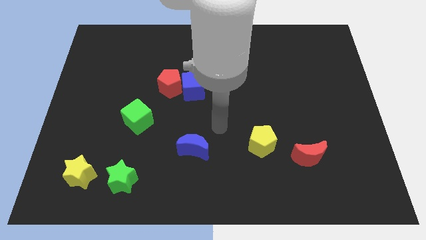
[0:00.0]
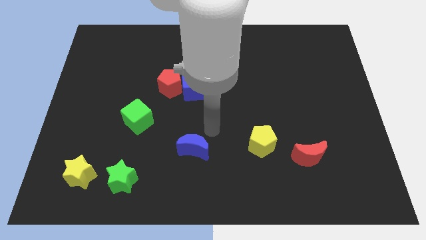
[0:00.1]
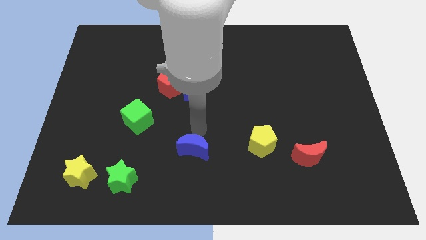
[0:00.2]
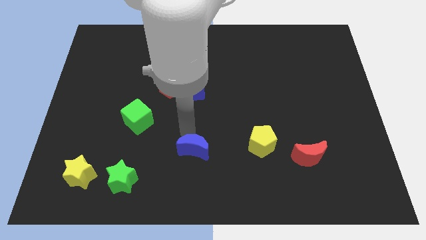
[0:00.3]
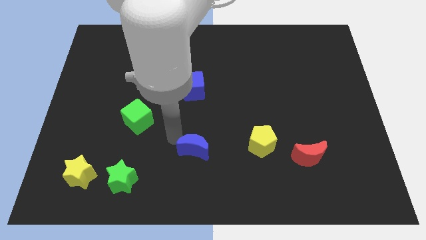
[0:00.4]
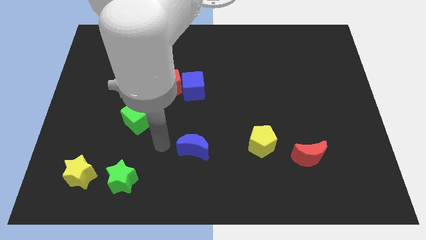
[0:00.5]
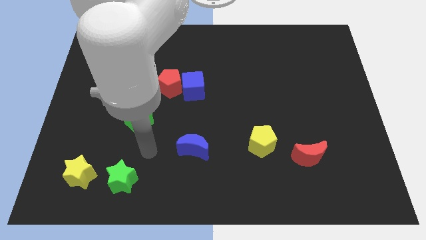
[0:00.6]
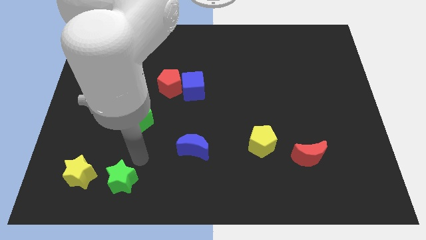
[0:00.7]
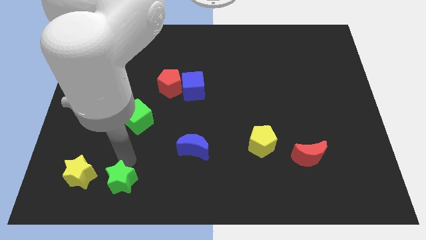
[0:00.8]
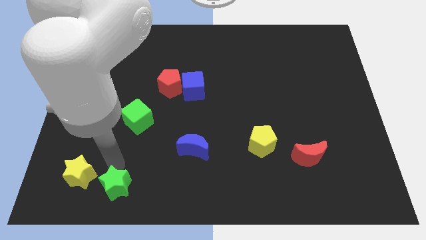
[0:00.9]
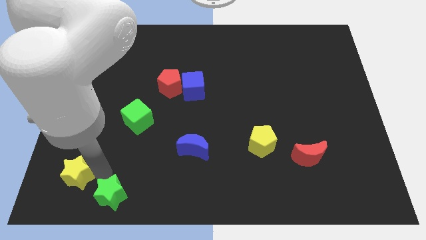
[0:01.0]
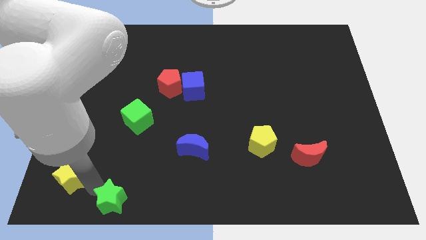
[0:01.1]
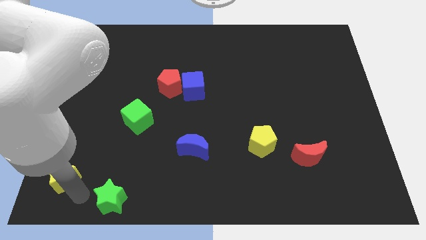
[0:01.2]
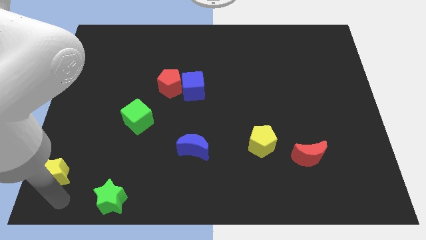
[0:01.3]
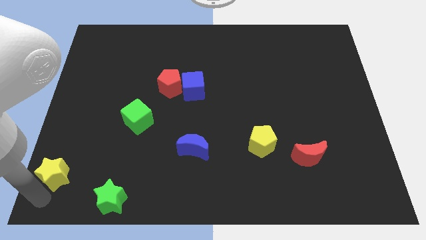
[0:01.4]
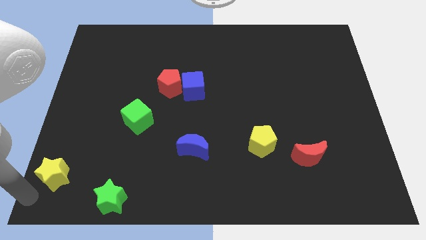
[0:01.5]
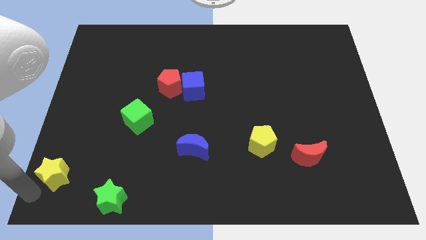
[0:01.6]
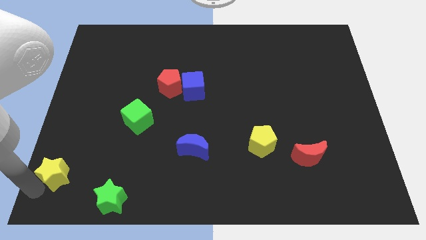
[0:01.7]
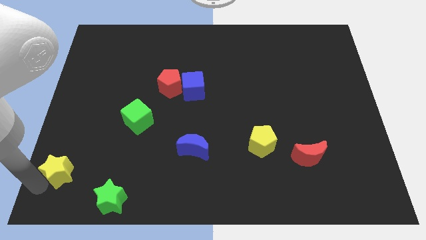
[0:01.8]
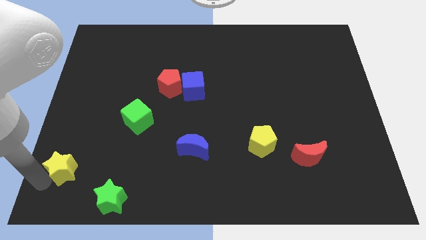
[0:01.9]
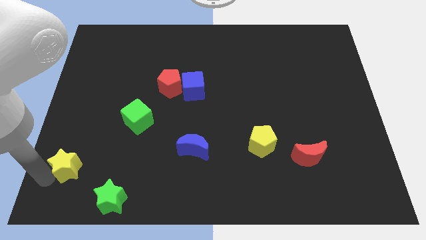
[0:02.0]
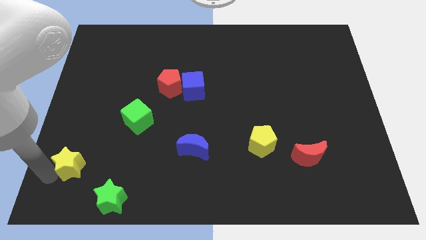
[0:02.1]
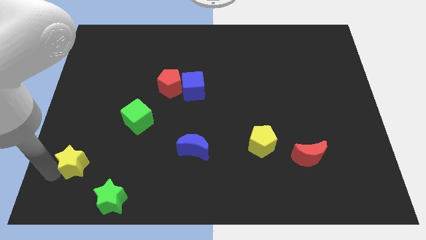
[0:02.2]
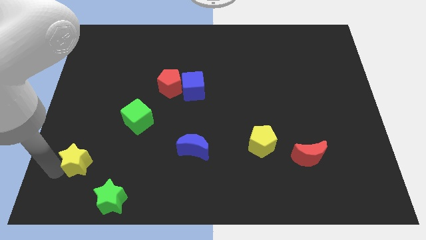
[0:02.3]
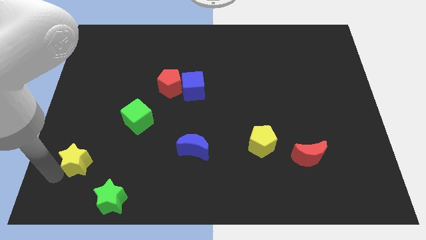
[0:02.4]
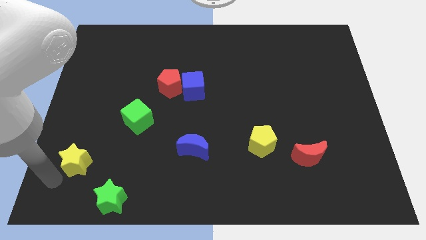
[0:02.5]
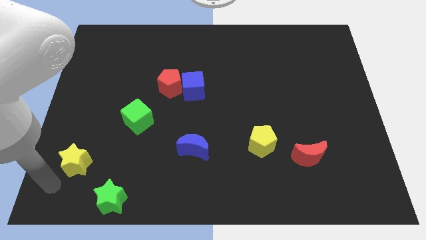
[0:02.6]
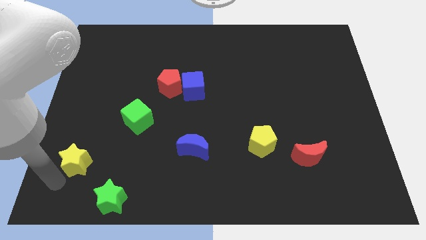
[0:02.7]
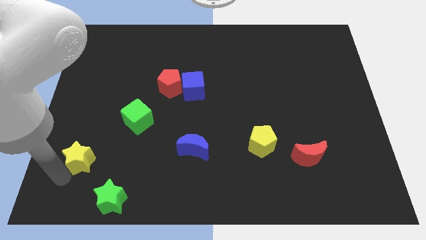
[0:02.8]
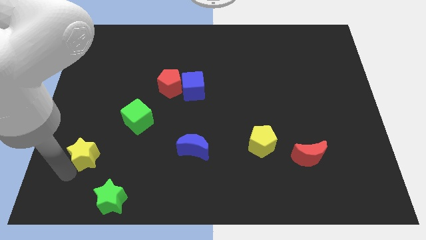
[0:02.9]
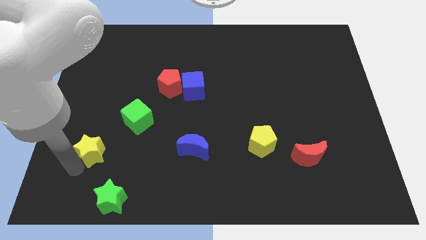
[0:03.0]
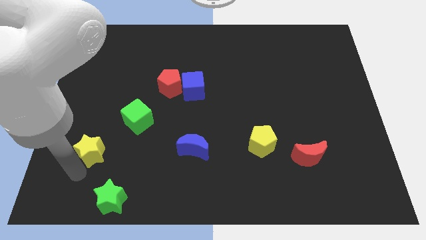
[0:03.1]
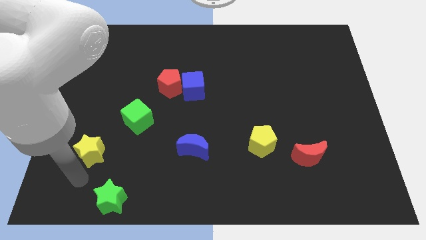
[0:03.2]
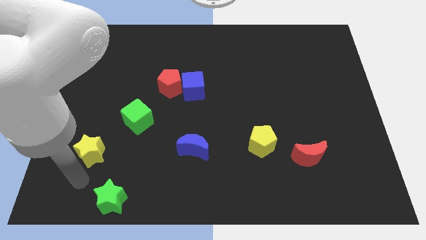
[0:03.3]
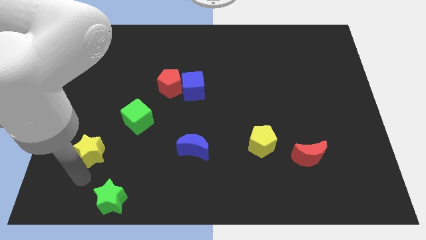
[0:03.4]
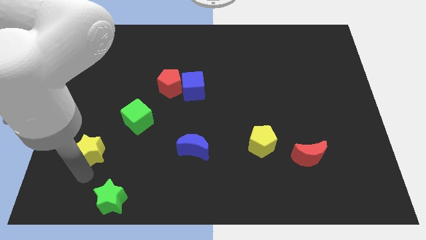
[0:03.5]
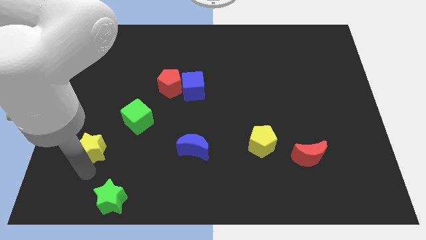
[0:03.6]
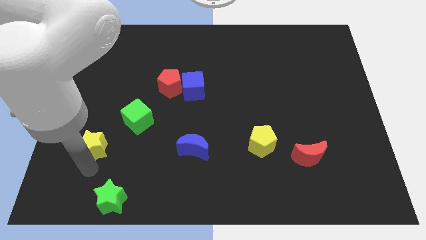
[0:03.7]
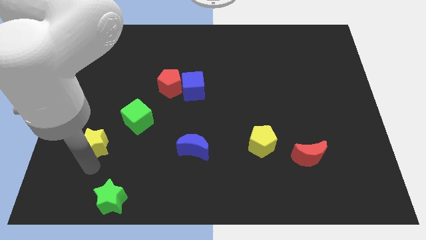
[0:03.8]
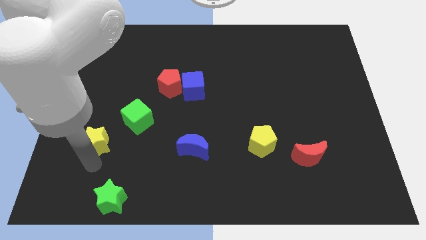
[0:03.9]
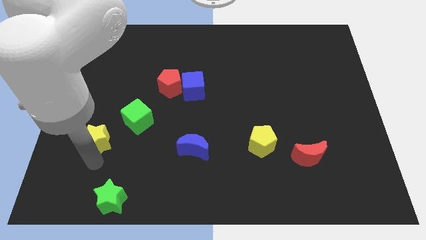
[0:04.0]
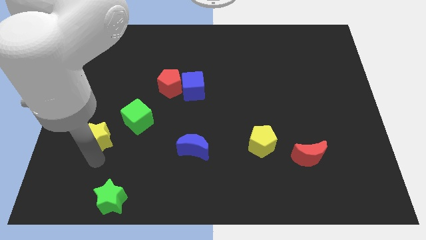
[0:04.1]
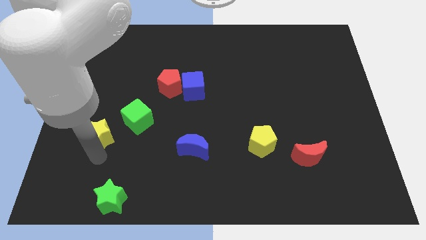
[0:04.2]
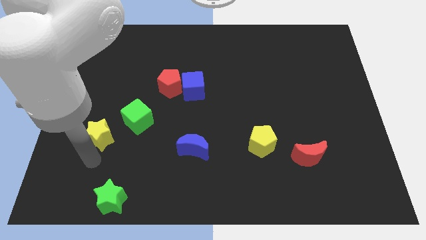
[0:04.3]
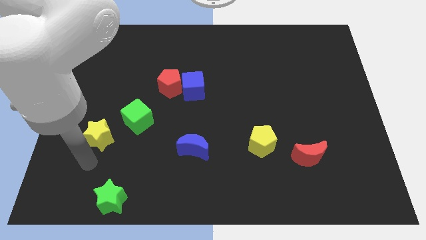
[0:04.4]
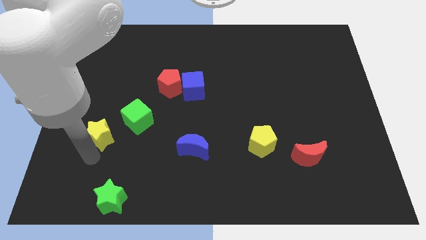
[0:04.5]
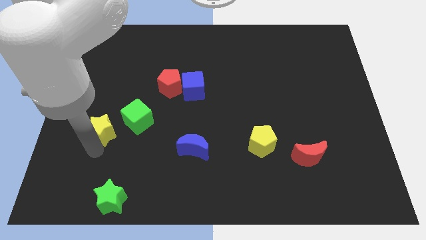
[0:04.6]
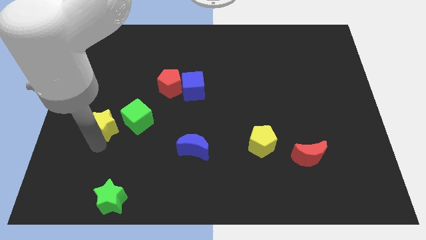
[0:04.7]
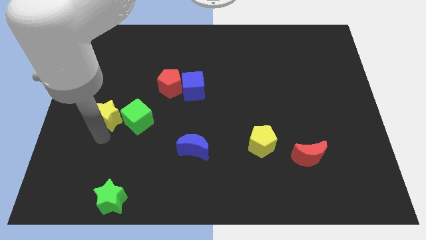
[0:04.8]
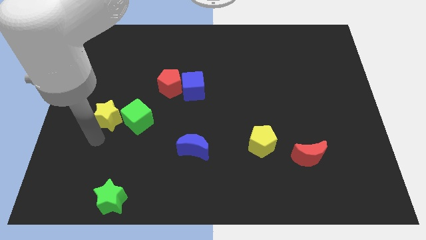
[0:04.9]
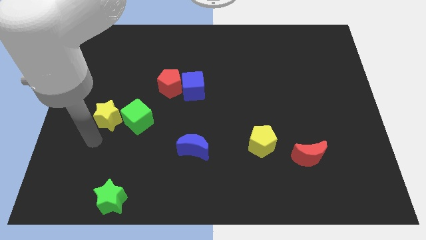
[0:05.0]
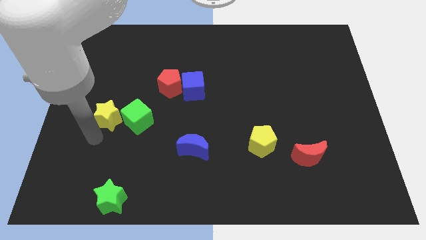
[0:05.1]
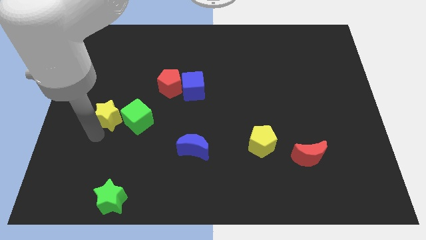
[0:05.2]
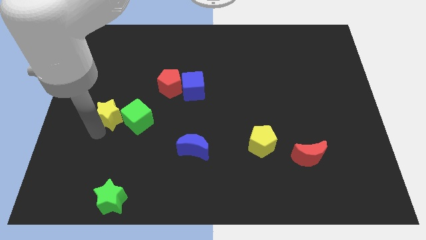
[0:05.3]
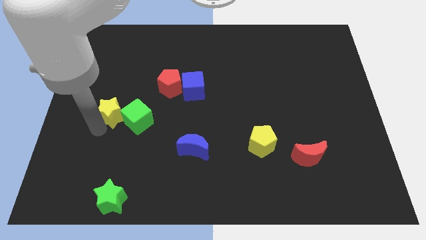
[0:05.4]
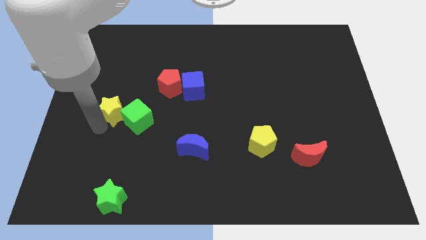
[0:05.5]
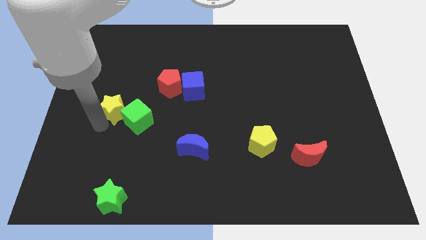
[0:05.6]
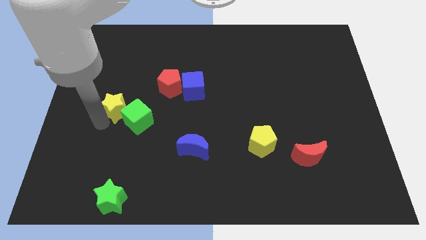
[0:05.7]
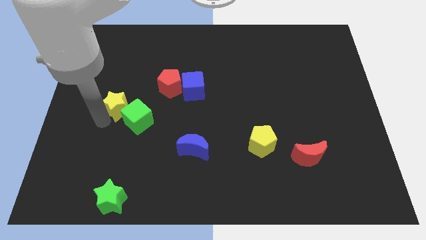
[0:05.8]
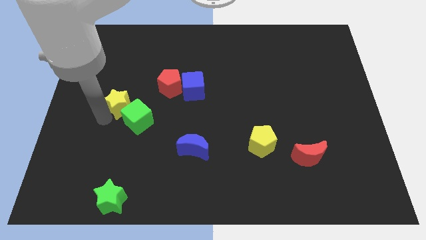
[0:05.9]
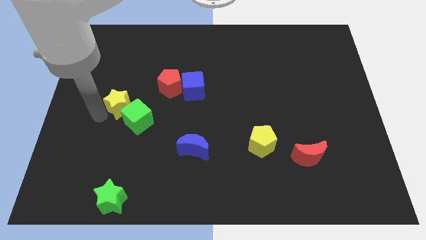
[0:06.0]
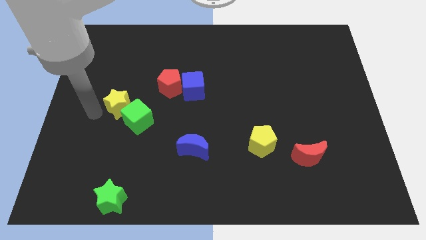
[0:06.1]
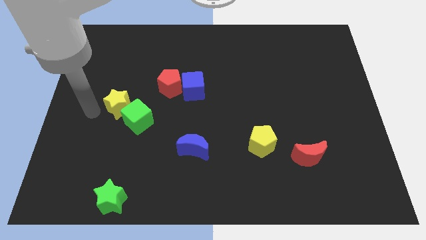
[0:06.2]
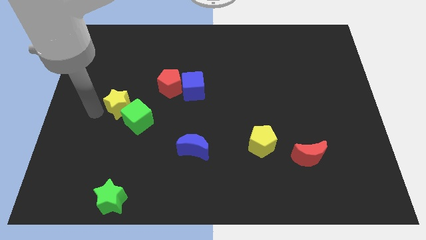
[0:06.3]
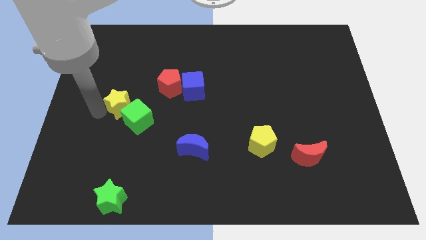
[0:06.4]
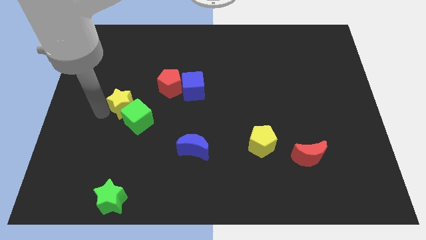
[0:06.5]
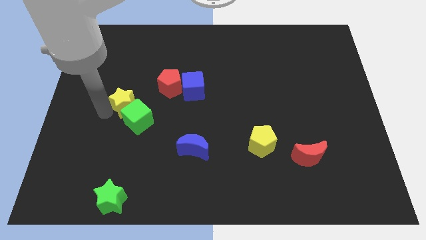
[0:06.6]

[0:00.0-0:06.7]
push the yellow star to the bottom left of the red pentagon

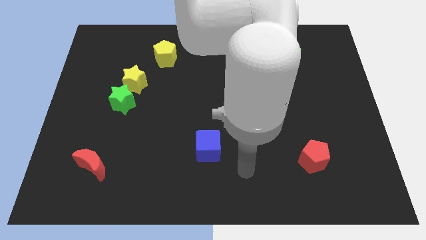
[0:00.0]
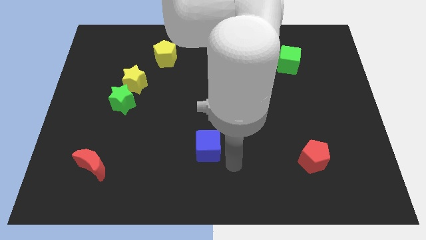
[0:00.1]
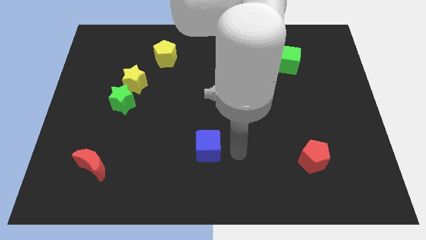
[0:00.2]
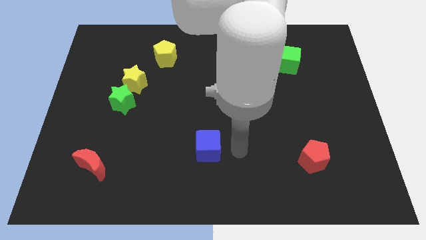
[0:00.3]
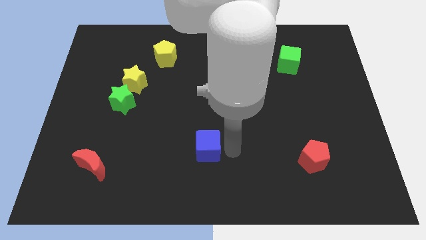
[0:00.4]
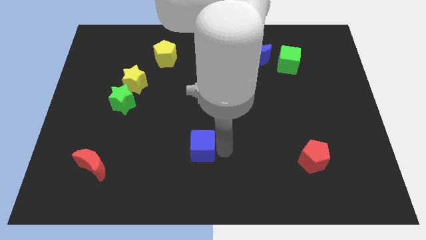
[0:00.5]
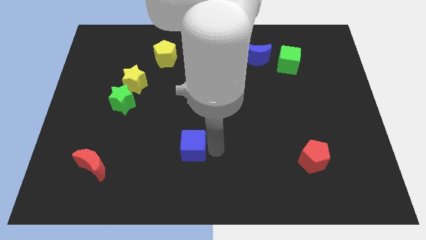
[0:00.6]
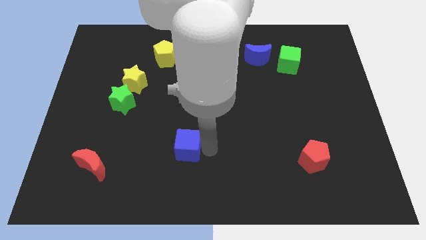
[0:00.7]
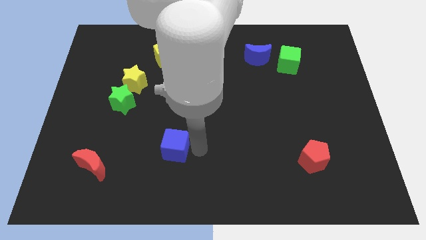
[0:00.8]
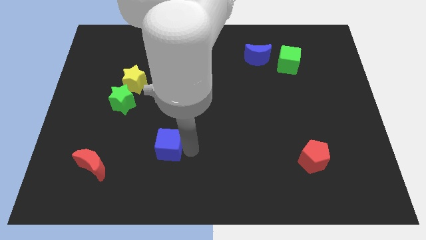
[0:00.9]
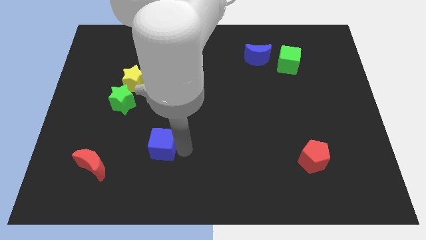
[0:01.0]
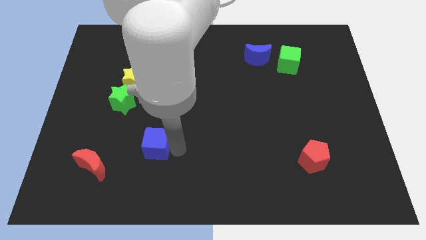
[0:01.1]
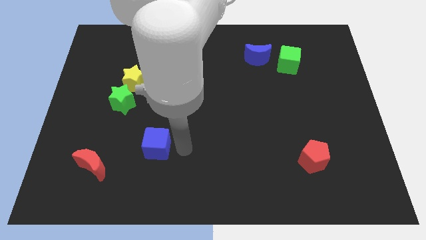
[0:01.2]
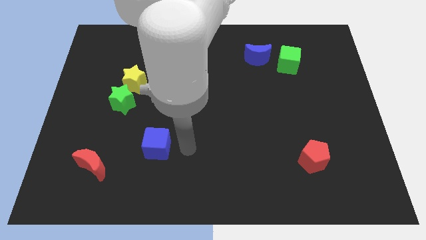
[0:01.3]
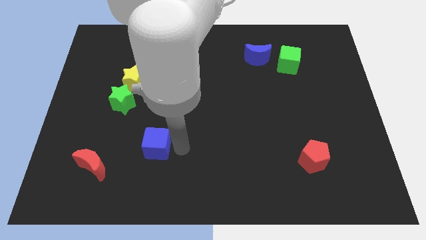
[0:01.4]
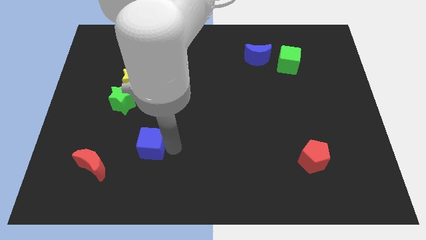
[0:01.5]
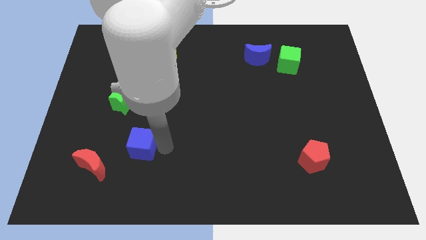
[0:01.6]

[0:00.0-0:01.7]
move the blue cube diagonally up and to the right of the red moon
